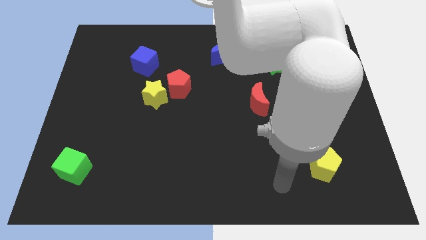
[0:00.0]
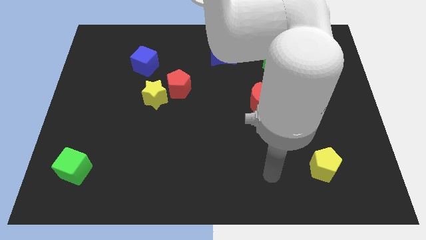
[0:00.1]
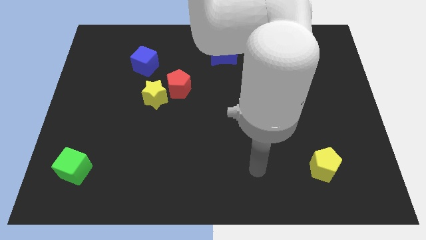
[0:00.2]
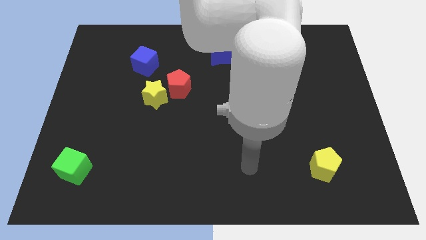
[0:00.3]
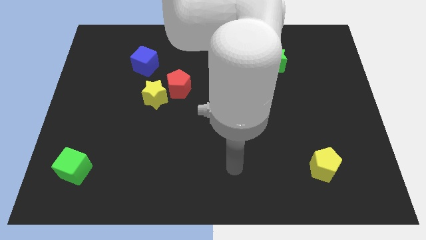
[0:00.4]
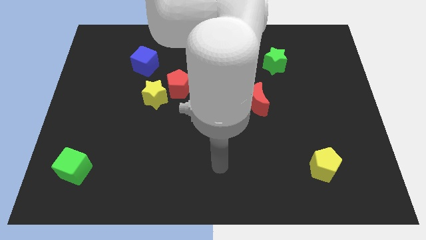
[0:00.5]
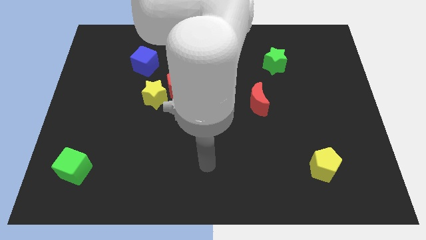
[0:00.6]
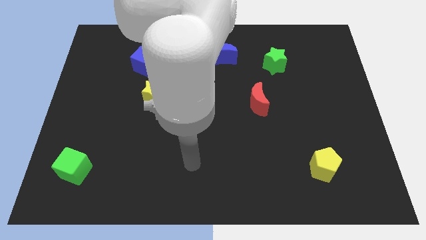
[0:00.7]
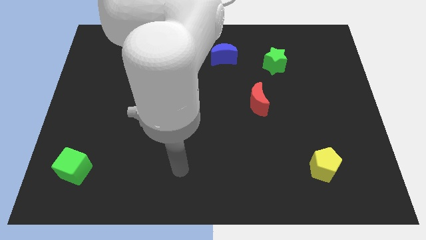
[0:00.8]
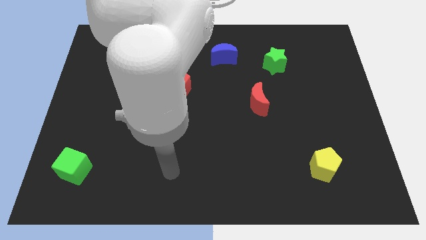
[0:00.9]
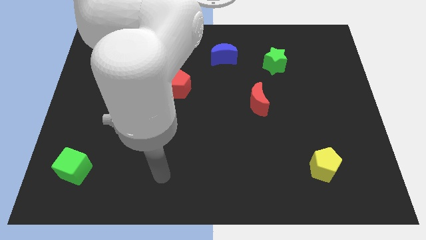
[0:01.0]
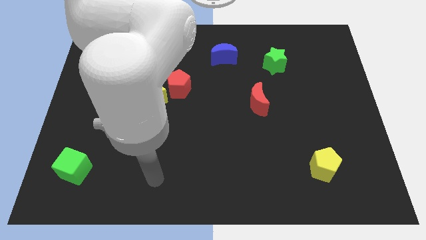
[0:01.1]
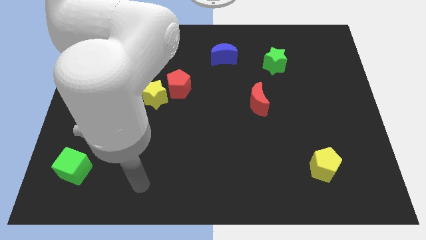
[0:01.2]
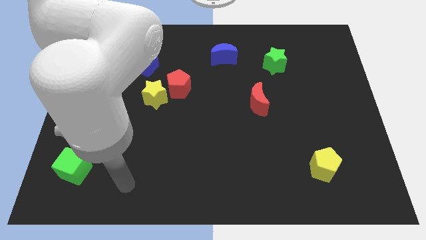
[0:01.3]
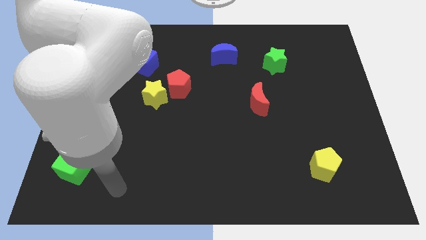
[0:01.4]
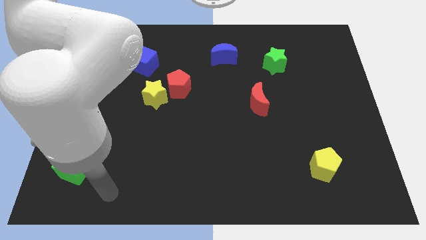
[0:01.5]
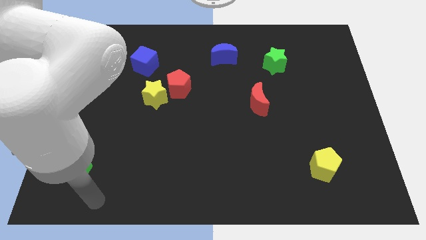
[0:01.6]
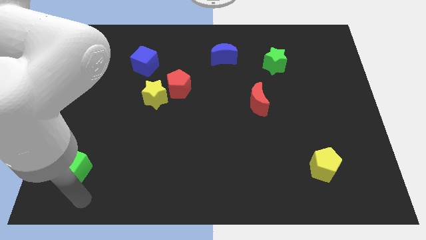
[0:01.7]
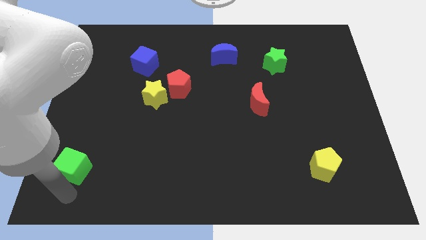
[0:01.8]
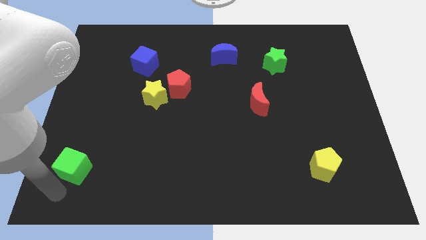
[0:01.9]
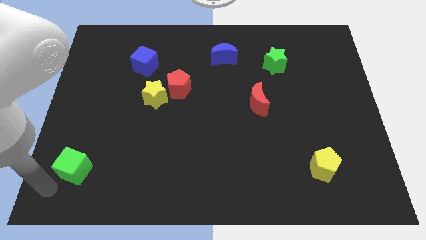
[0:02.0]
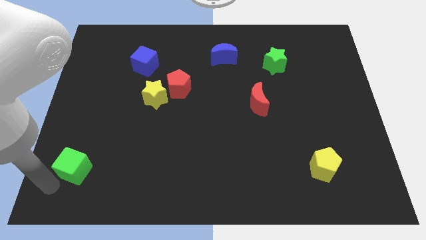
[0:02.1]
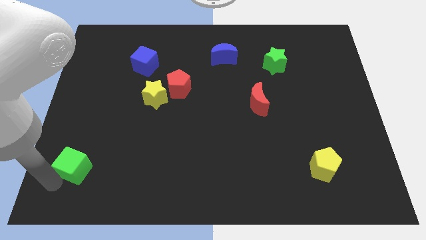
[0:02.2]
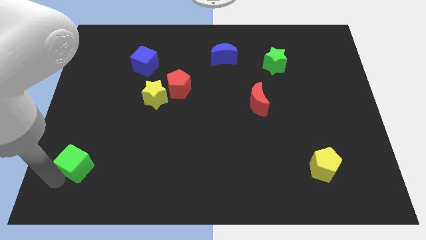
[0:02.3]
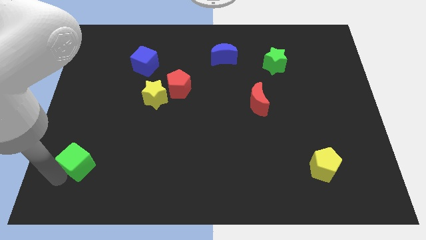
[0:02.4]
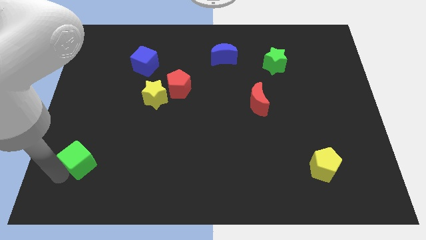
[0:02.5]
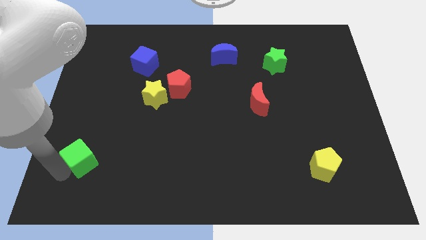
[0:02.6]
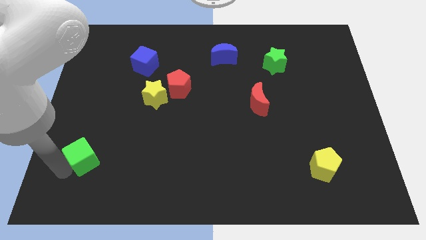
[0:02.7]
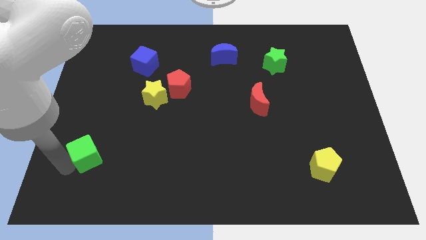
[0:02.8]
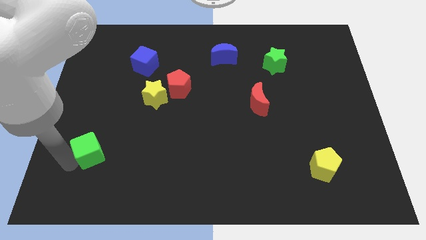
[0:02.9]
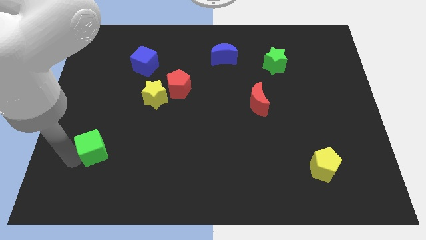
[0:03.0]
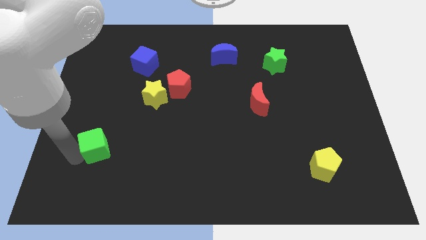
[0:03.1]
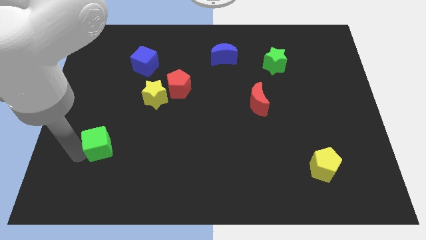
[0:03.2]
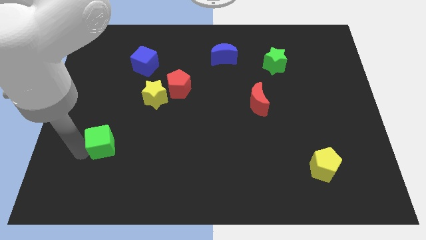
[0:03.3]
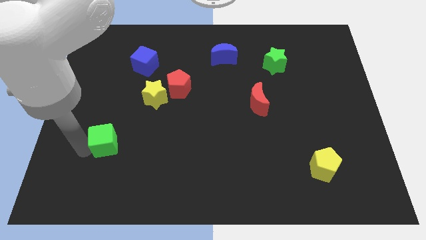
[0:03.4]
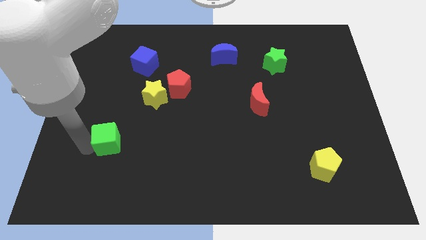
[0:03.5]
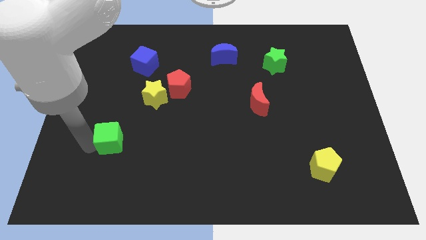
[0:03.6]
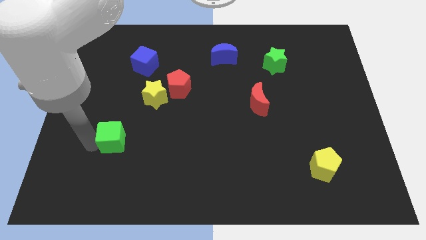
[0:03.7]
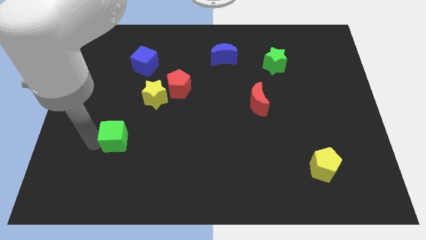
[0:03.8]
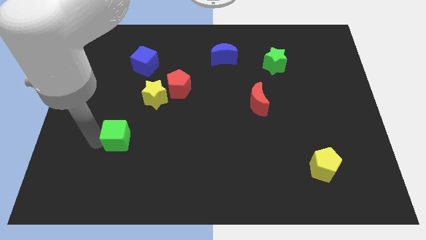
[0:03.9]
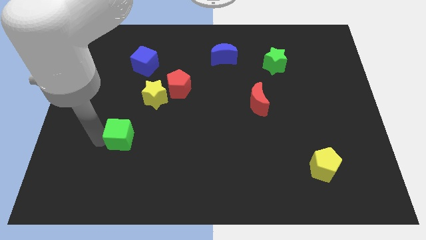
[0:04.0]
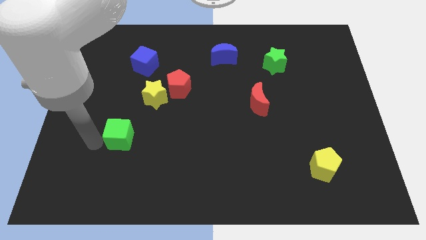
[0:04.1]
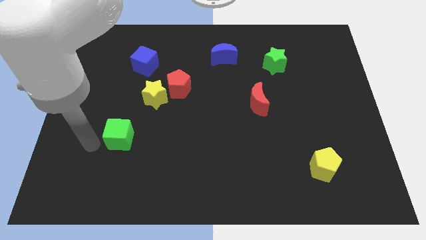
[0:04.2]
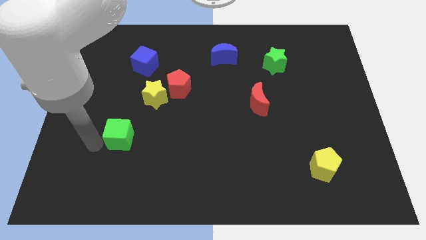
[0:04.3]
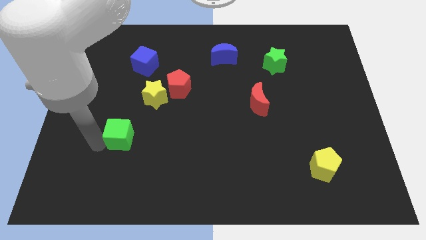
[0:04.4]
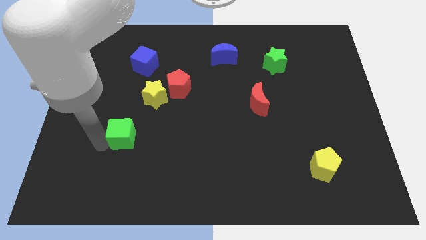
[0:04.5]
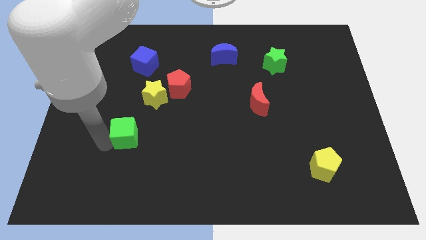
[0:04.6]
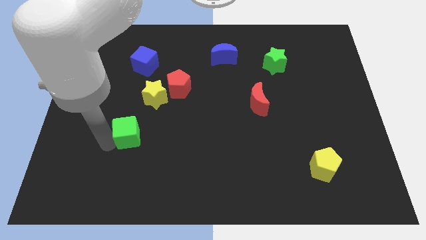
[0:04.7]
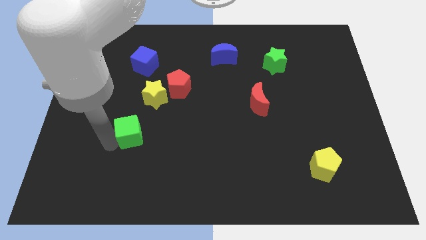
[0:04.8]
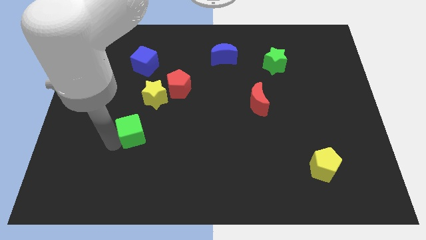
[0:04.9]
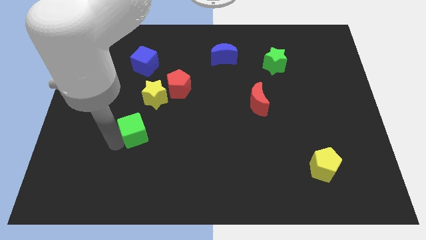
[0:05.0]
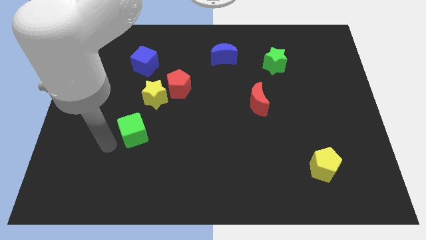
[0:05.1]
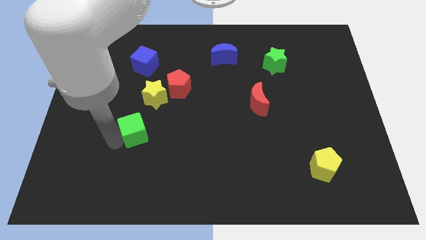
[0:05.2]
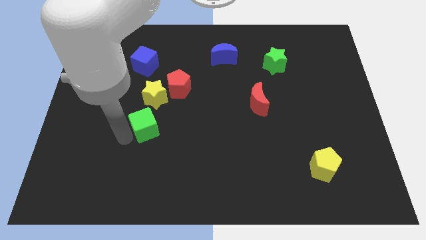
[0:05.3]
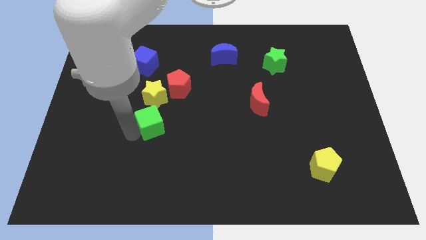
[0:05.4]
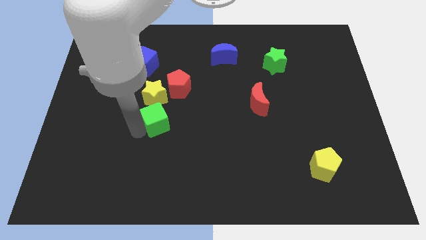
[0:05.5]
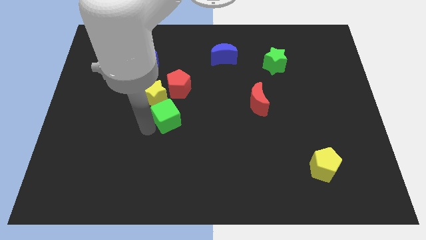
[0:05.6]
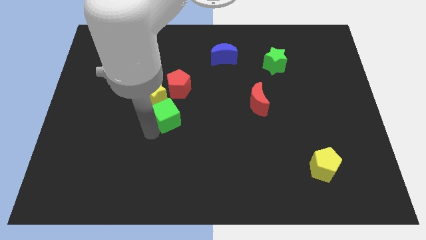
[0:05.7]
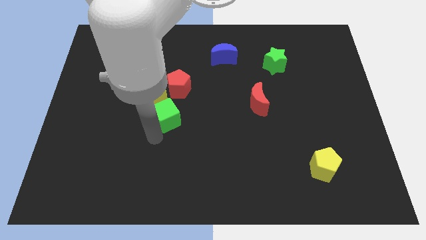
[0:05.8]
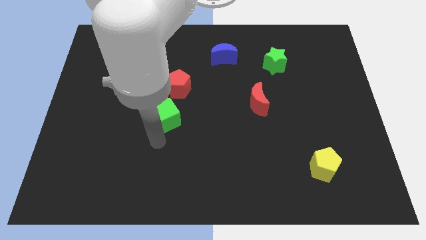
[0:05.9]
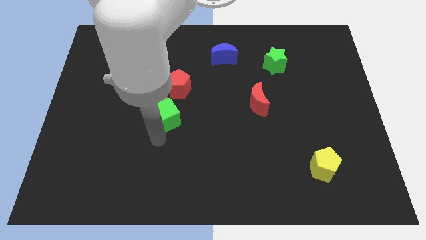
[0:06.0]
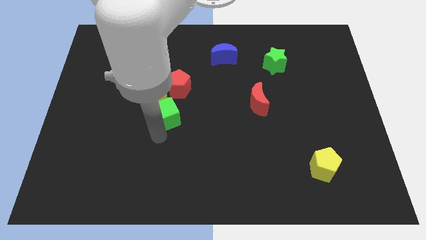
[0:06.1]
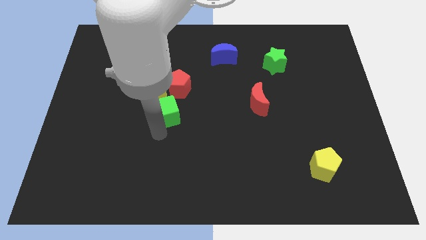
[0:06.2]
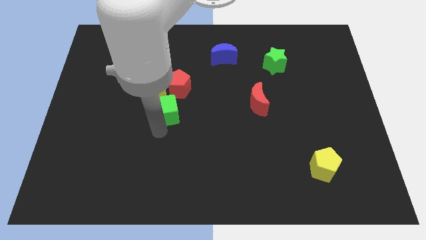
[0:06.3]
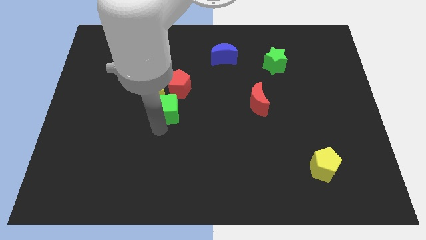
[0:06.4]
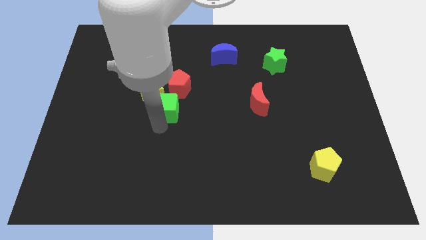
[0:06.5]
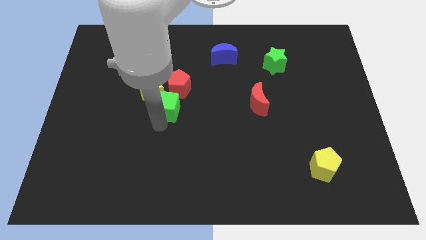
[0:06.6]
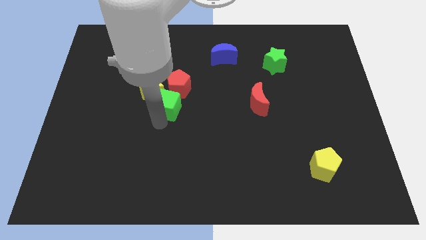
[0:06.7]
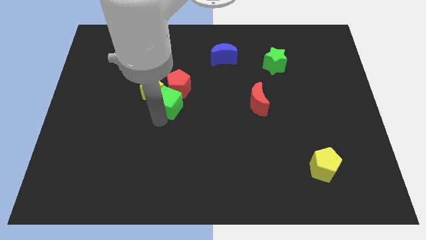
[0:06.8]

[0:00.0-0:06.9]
move the green cube to the red pentagon
